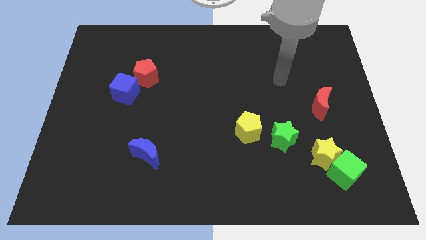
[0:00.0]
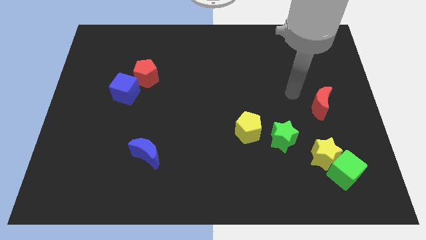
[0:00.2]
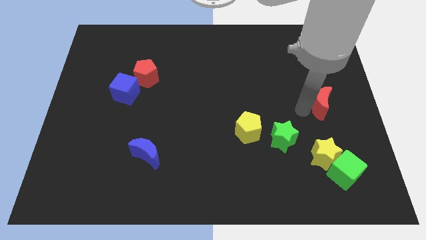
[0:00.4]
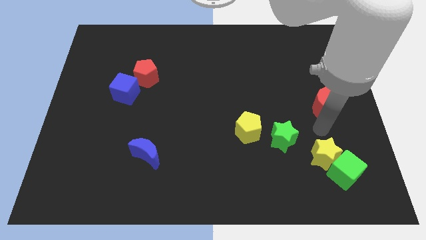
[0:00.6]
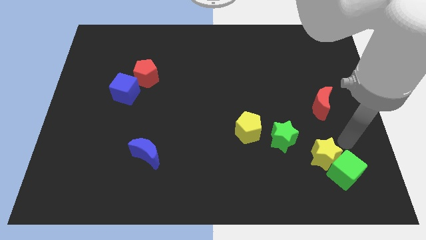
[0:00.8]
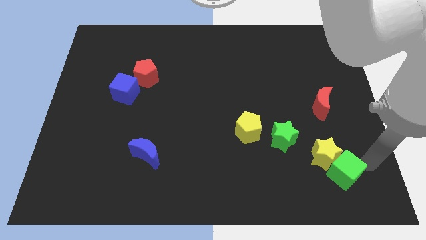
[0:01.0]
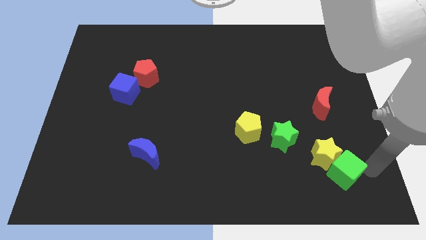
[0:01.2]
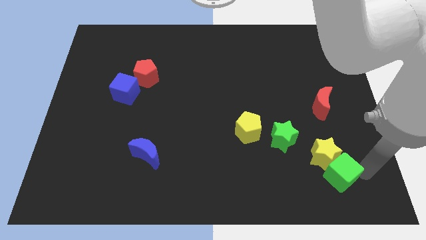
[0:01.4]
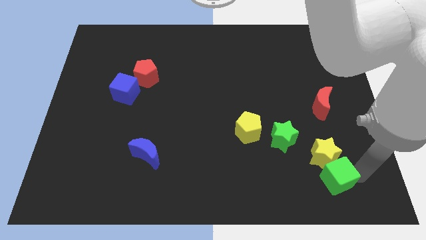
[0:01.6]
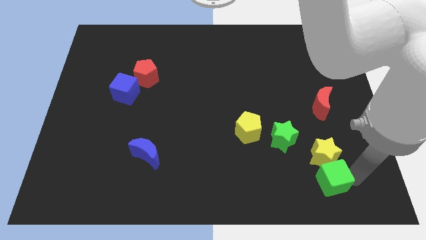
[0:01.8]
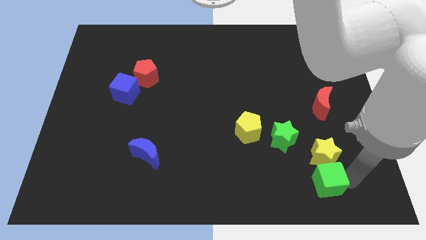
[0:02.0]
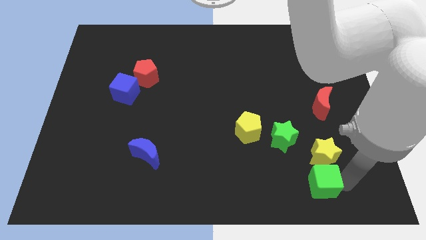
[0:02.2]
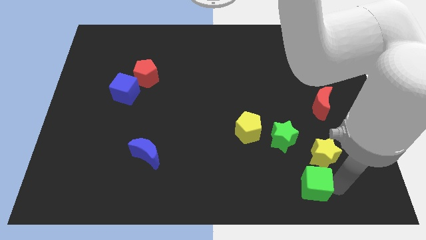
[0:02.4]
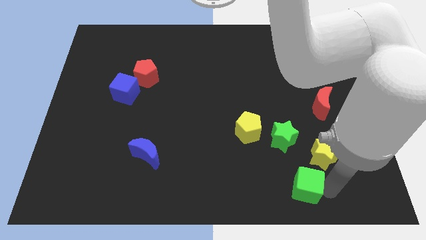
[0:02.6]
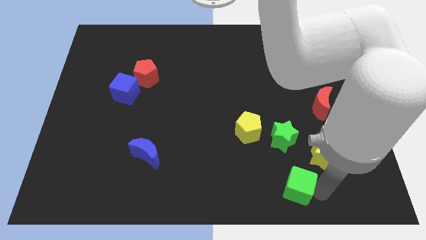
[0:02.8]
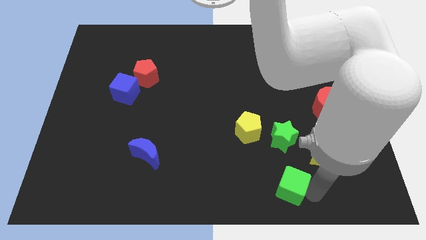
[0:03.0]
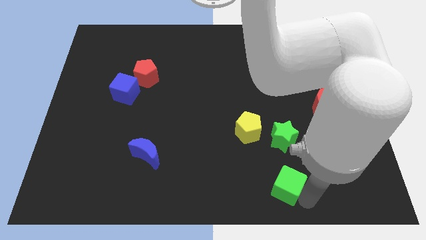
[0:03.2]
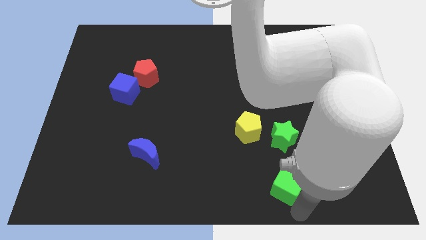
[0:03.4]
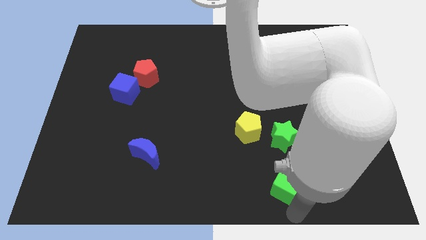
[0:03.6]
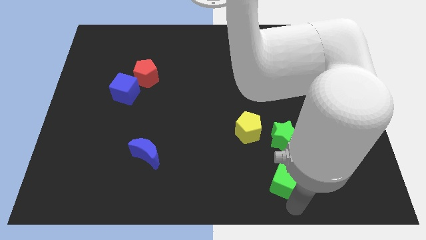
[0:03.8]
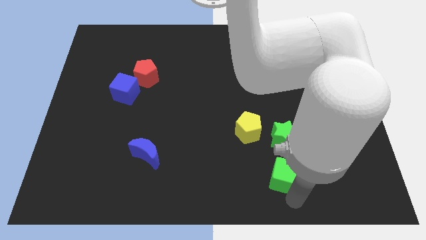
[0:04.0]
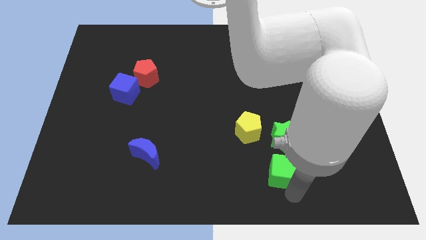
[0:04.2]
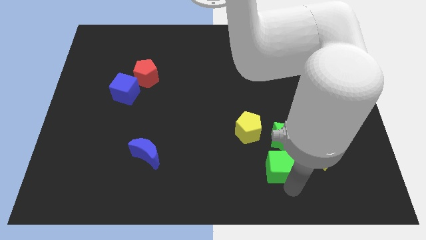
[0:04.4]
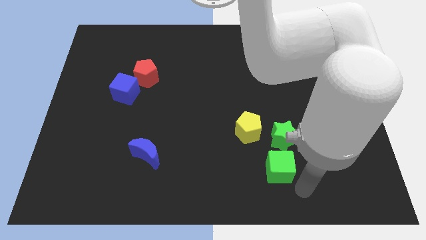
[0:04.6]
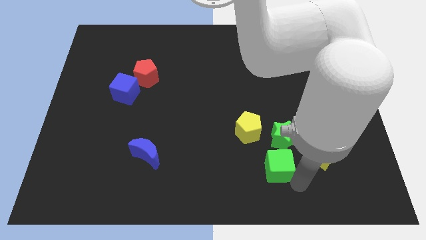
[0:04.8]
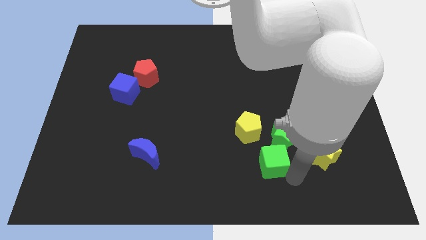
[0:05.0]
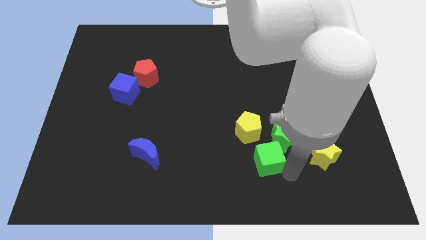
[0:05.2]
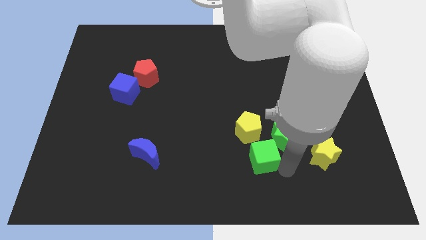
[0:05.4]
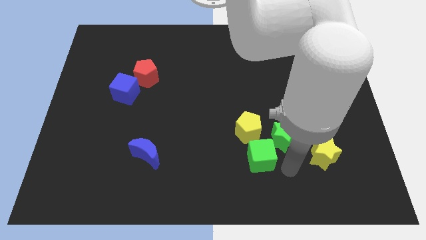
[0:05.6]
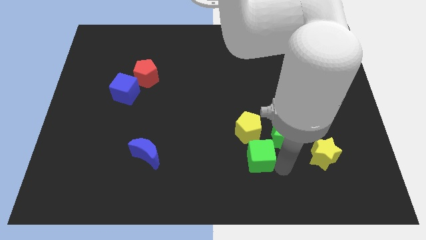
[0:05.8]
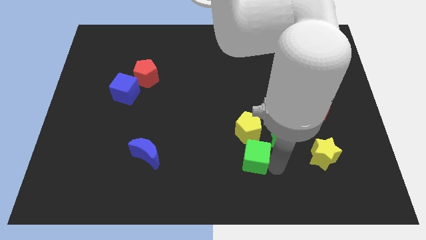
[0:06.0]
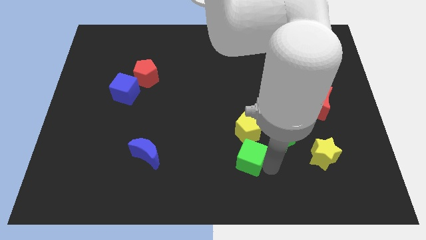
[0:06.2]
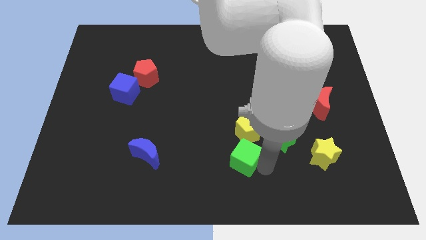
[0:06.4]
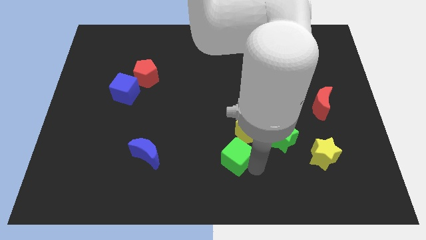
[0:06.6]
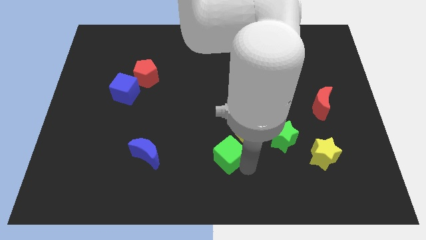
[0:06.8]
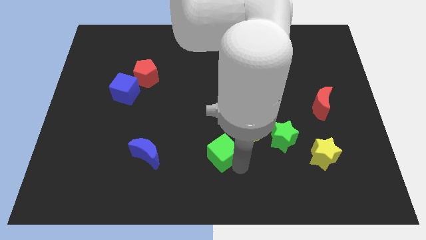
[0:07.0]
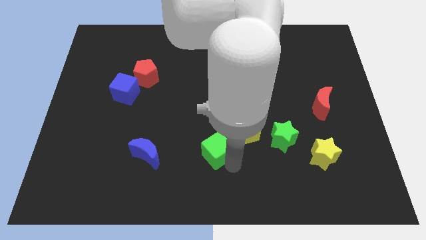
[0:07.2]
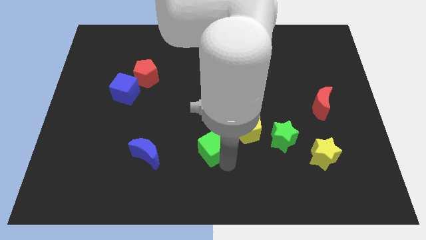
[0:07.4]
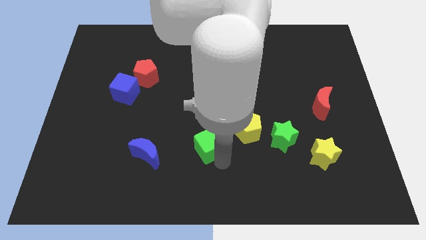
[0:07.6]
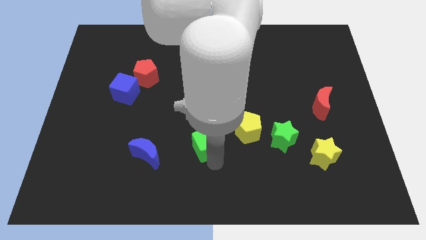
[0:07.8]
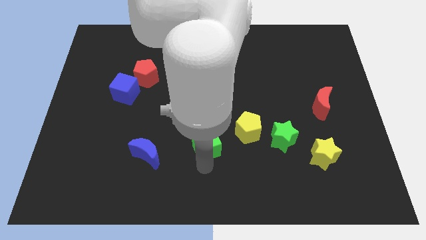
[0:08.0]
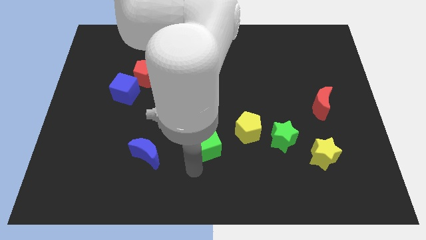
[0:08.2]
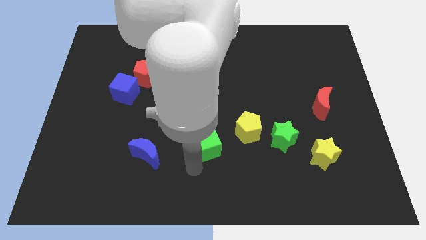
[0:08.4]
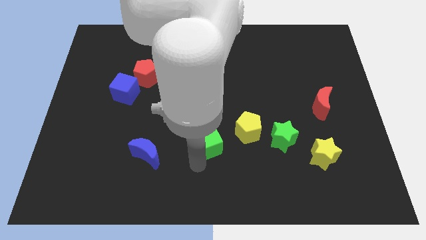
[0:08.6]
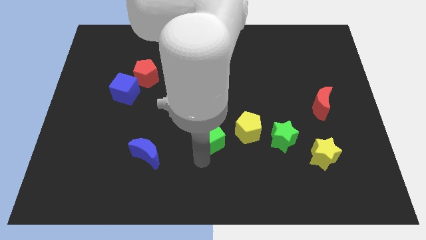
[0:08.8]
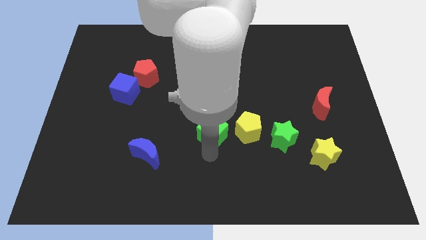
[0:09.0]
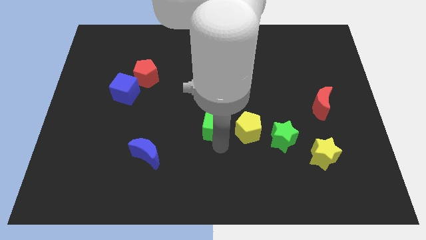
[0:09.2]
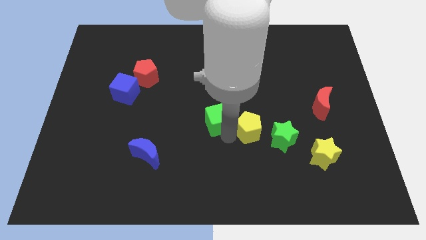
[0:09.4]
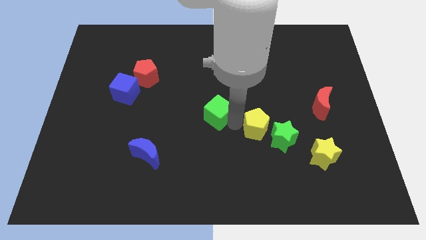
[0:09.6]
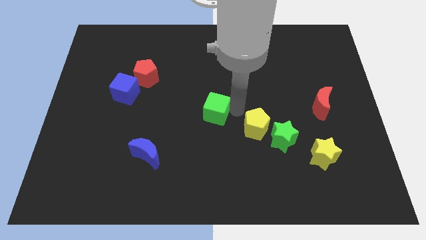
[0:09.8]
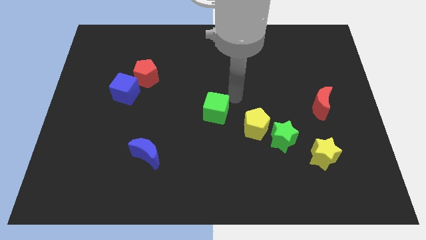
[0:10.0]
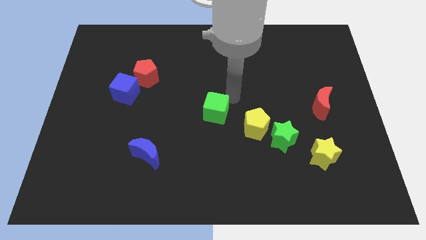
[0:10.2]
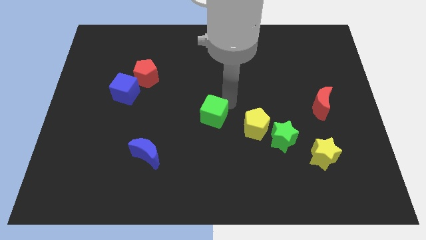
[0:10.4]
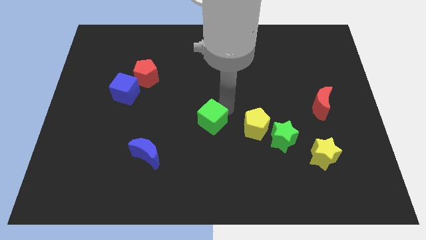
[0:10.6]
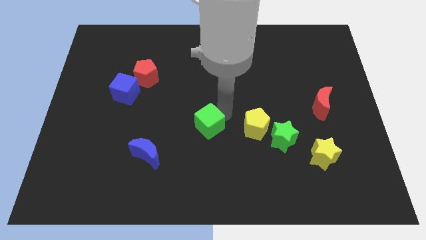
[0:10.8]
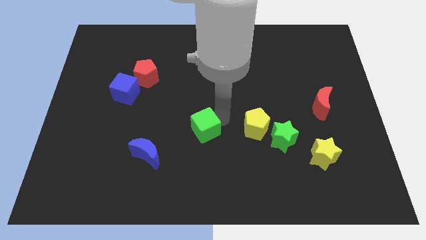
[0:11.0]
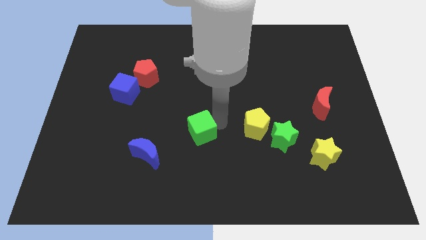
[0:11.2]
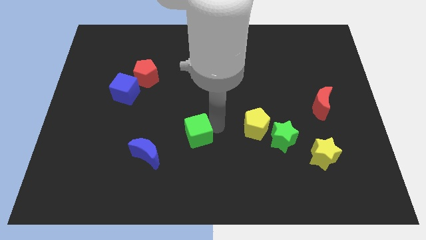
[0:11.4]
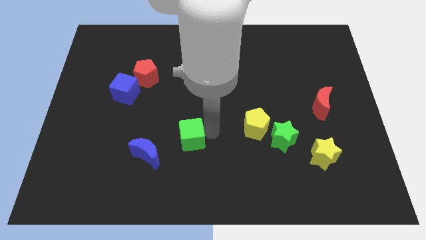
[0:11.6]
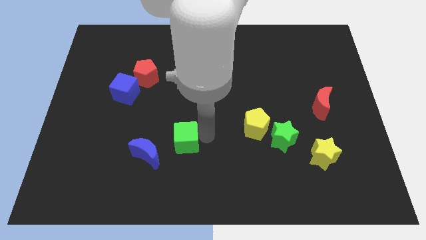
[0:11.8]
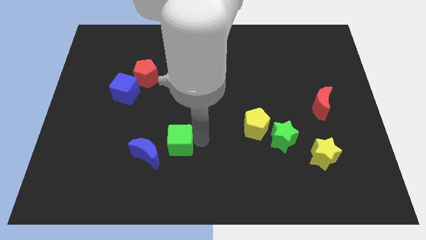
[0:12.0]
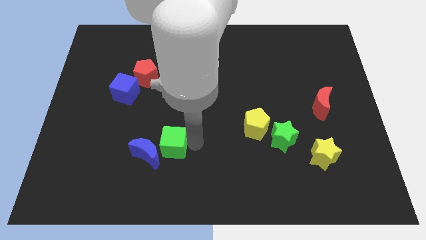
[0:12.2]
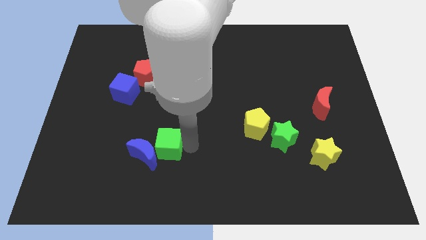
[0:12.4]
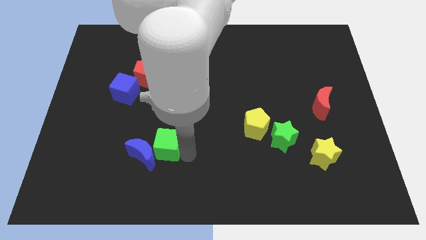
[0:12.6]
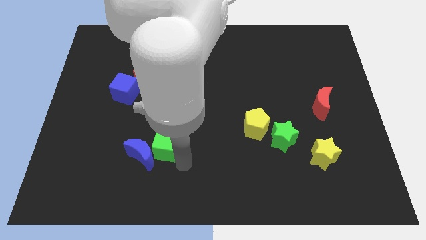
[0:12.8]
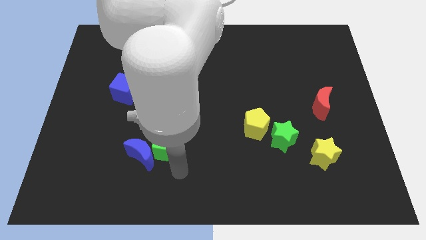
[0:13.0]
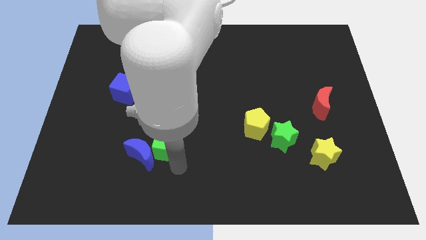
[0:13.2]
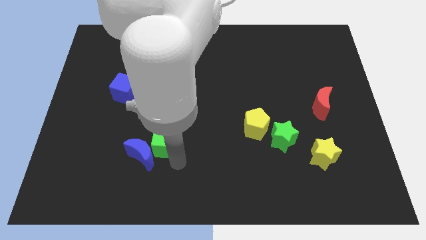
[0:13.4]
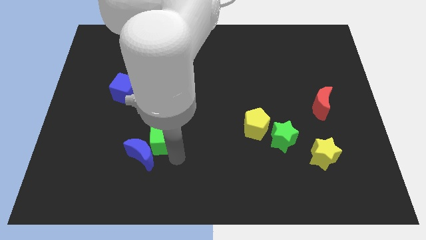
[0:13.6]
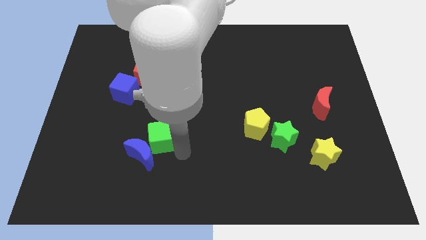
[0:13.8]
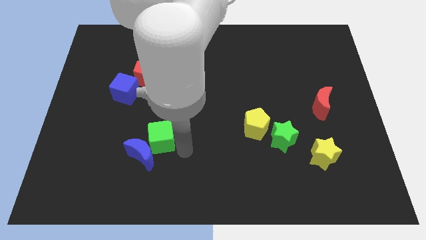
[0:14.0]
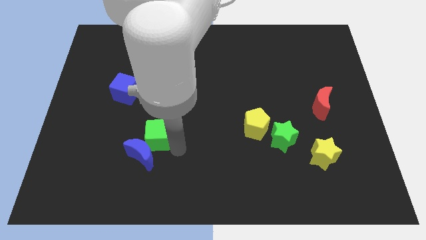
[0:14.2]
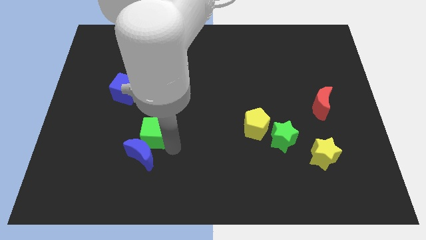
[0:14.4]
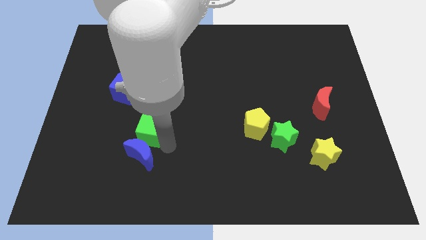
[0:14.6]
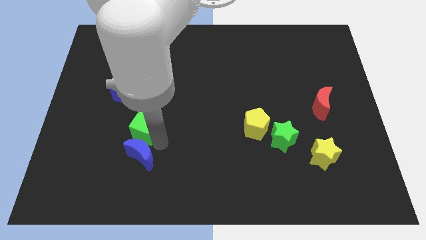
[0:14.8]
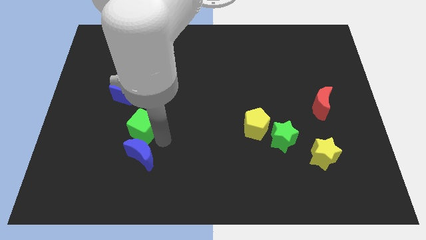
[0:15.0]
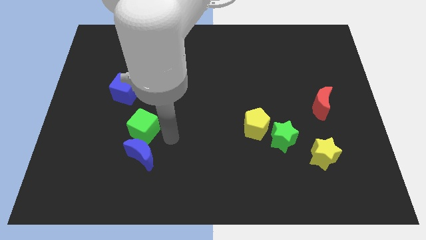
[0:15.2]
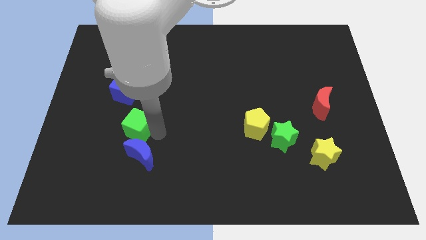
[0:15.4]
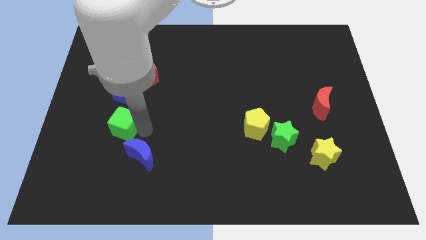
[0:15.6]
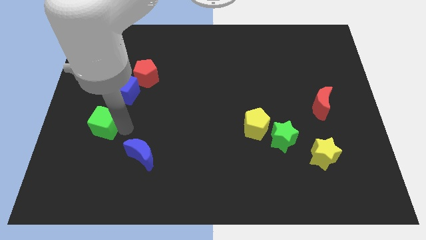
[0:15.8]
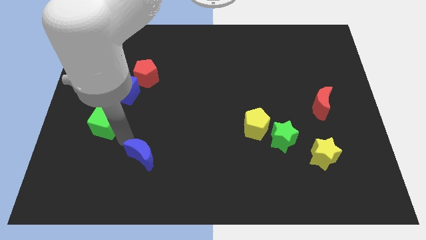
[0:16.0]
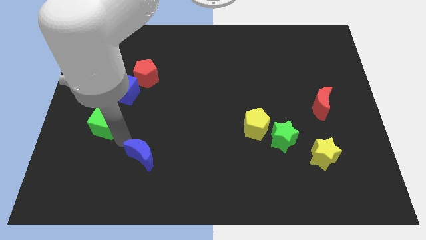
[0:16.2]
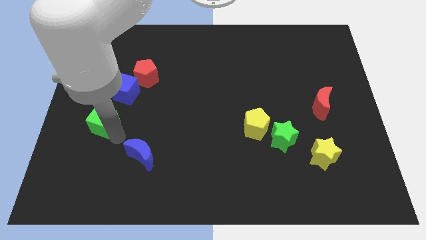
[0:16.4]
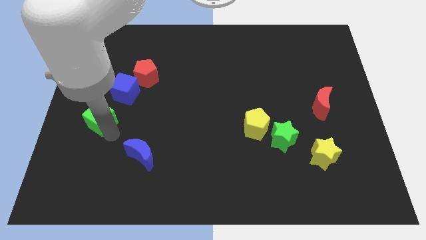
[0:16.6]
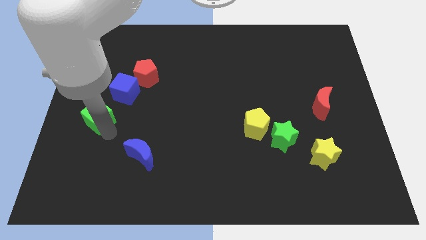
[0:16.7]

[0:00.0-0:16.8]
slide the green cube to the left side of the board
